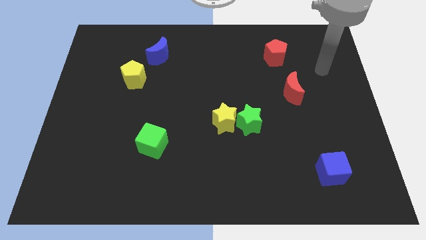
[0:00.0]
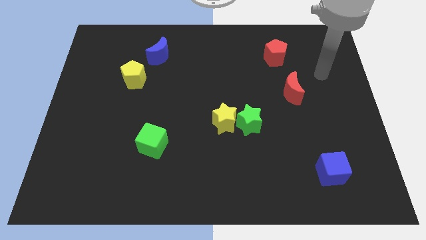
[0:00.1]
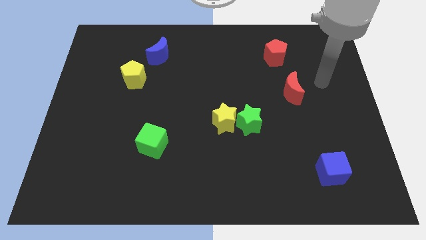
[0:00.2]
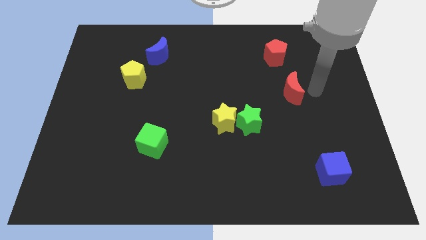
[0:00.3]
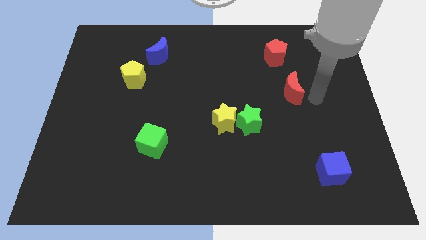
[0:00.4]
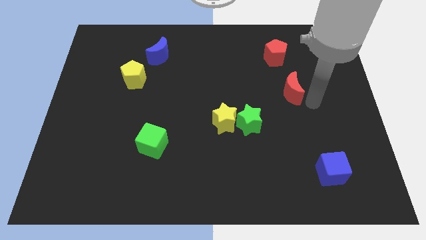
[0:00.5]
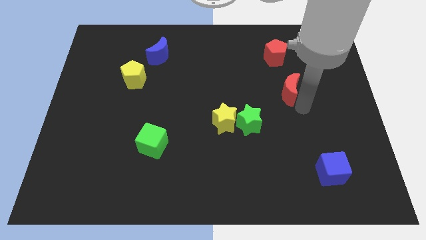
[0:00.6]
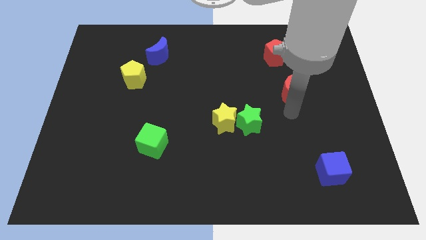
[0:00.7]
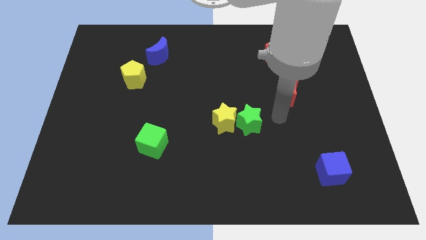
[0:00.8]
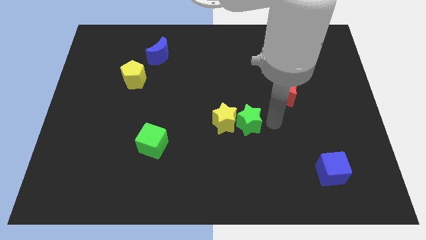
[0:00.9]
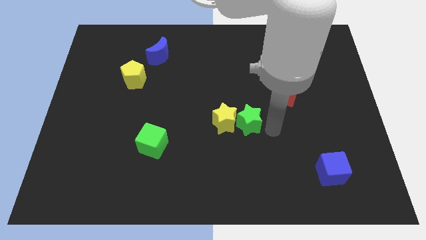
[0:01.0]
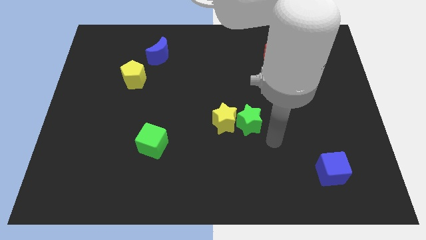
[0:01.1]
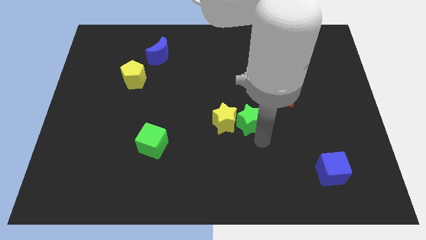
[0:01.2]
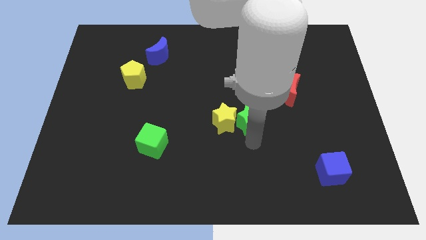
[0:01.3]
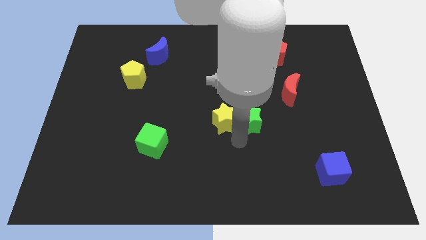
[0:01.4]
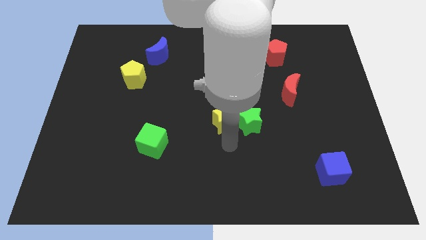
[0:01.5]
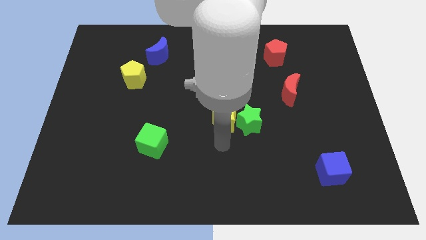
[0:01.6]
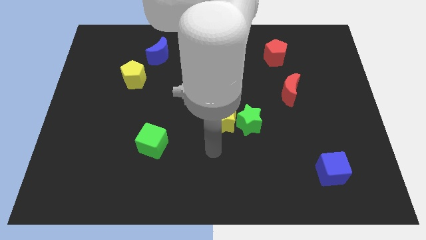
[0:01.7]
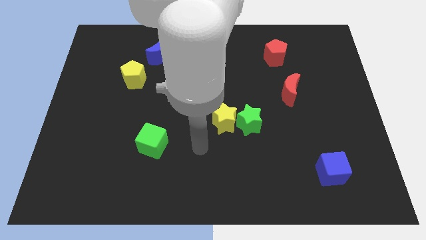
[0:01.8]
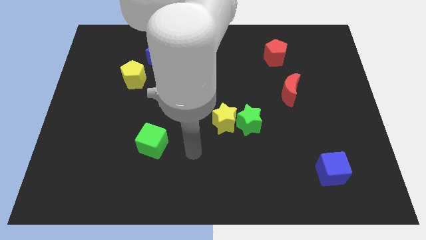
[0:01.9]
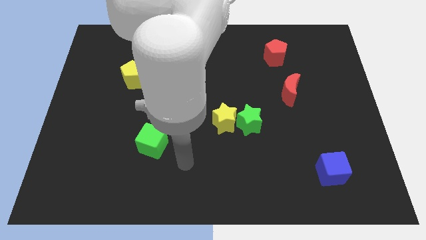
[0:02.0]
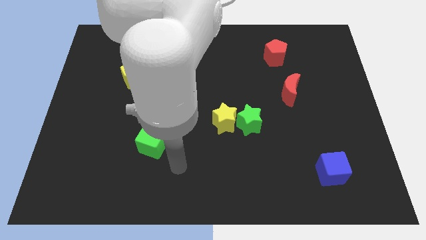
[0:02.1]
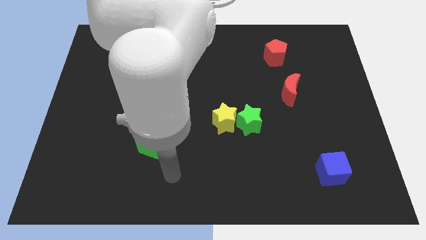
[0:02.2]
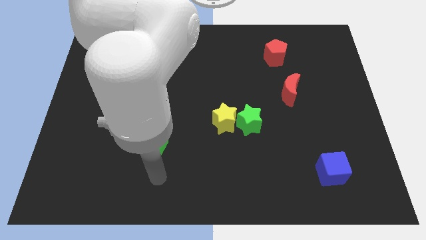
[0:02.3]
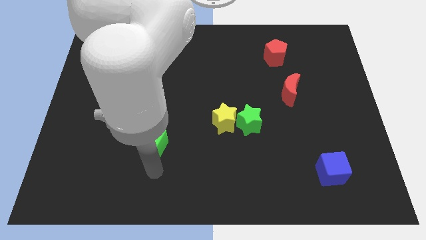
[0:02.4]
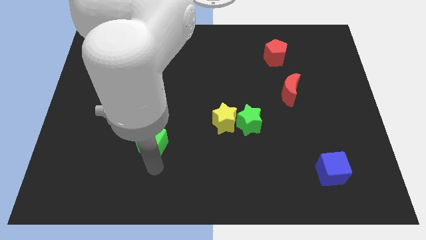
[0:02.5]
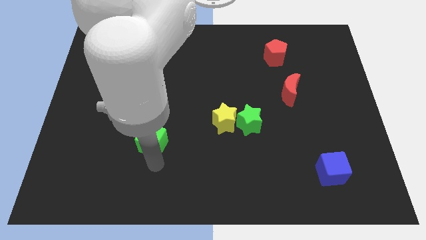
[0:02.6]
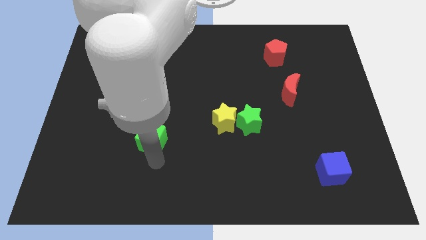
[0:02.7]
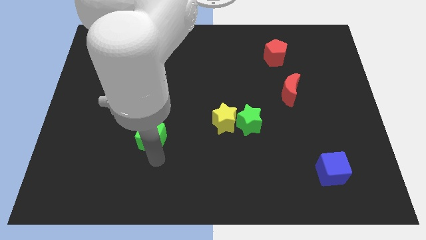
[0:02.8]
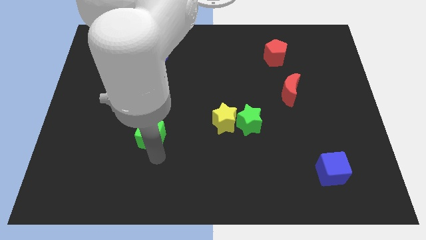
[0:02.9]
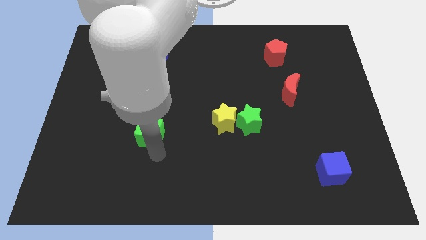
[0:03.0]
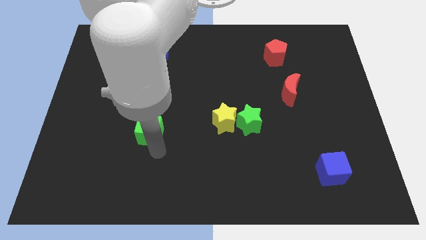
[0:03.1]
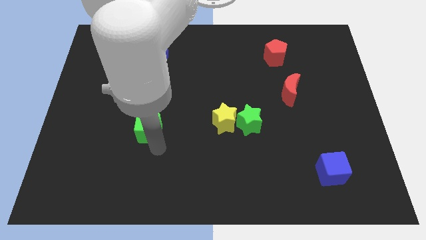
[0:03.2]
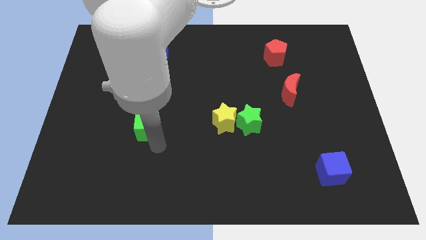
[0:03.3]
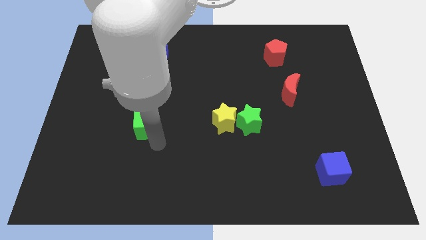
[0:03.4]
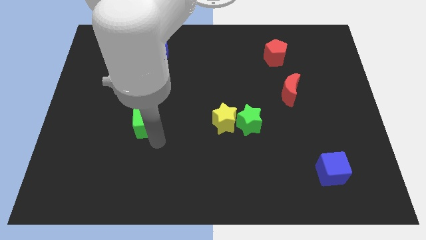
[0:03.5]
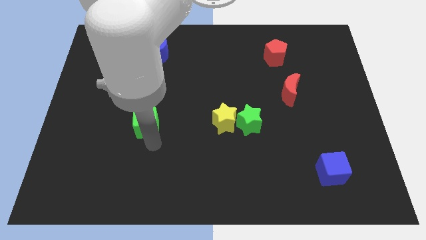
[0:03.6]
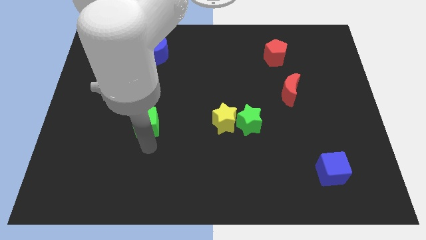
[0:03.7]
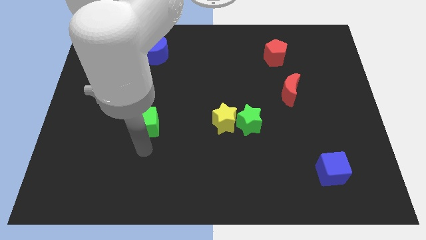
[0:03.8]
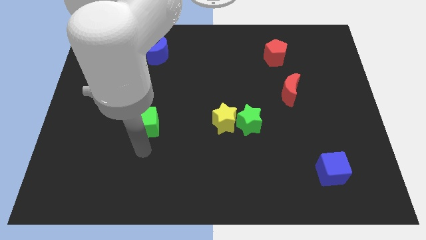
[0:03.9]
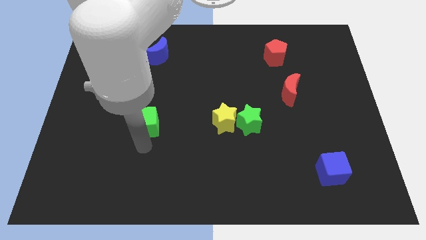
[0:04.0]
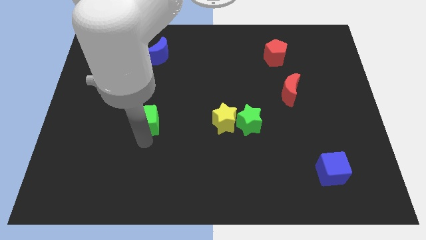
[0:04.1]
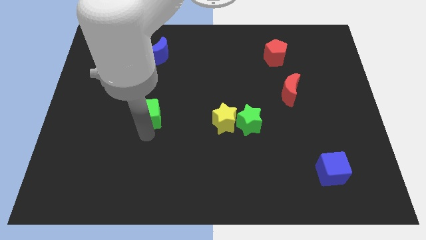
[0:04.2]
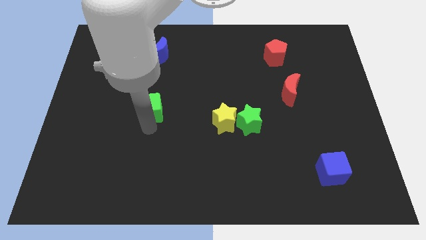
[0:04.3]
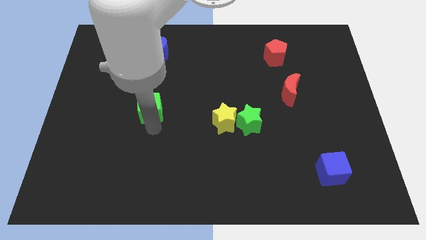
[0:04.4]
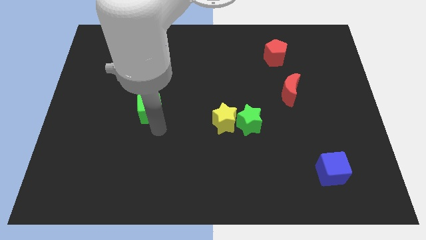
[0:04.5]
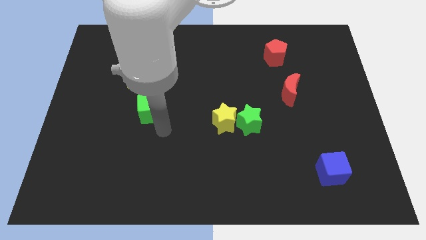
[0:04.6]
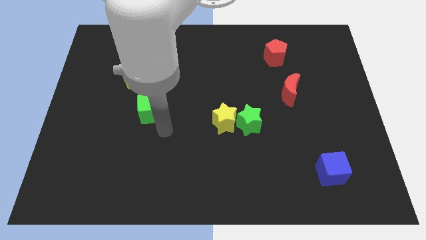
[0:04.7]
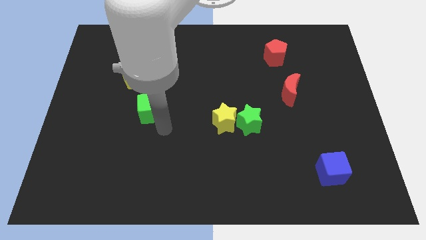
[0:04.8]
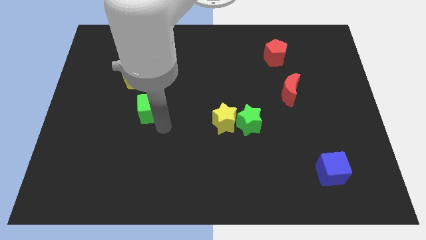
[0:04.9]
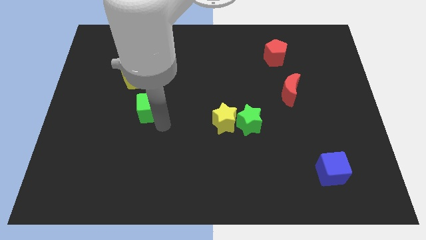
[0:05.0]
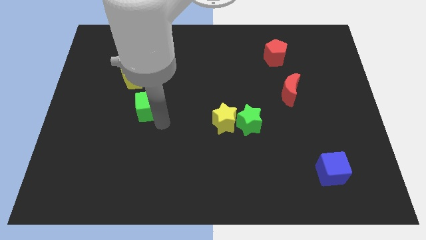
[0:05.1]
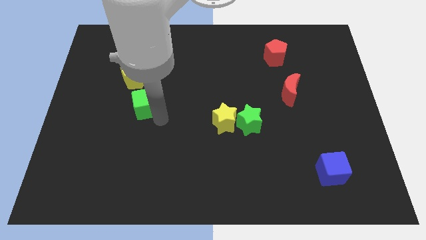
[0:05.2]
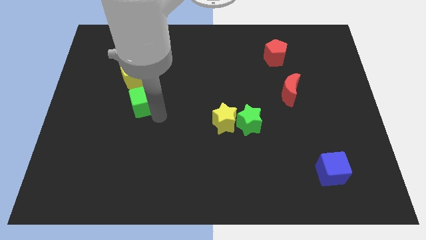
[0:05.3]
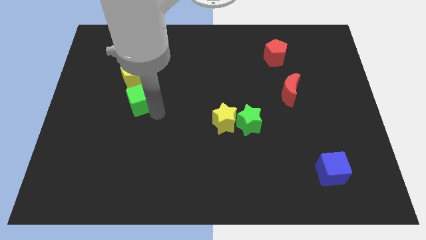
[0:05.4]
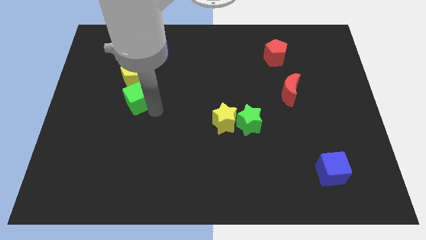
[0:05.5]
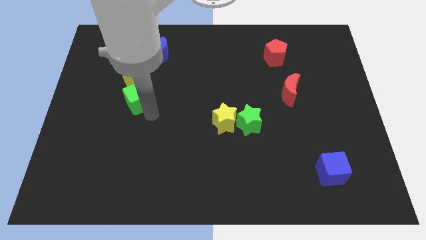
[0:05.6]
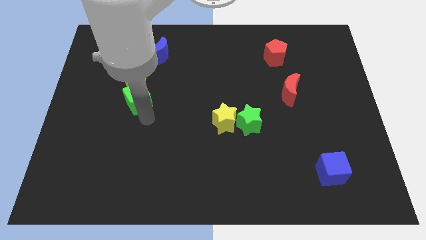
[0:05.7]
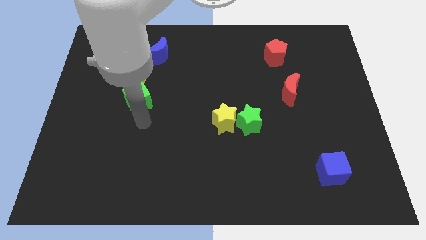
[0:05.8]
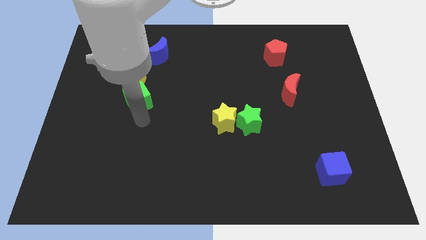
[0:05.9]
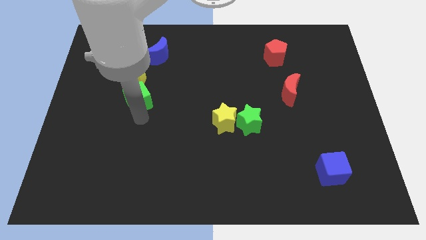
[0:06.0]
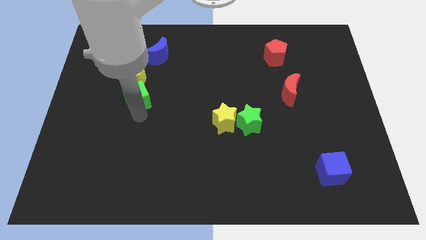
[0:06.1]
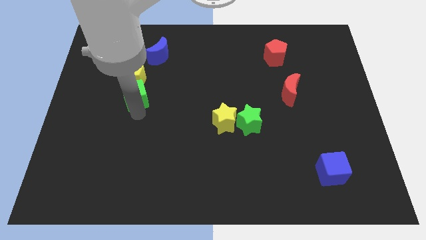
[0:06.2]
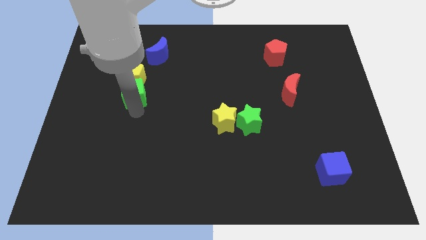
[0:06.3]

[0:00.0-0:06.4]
slide the green cube to the yellow pentagon

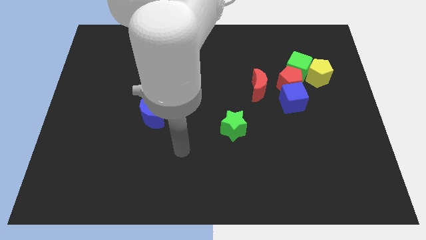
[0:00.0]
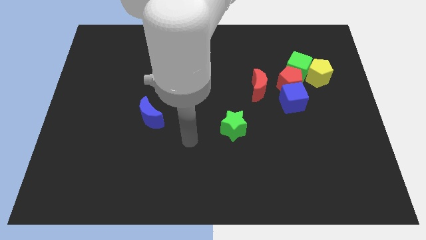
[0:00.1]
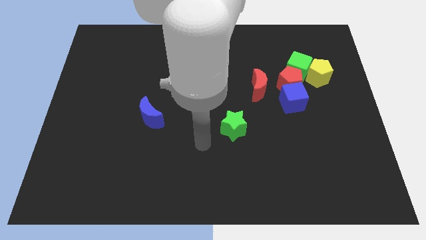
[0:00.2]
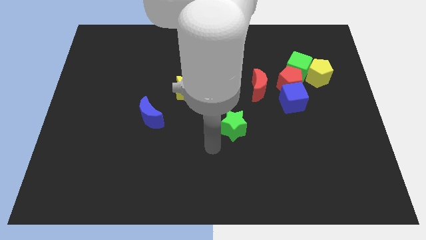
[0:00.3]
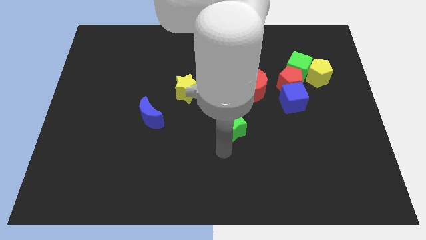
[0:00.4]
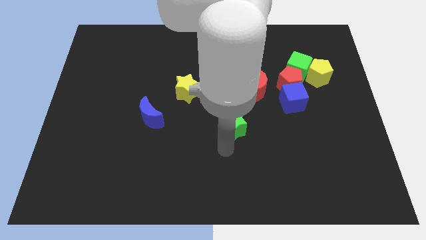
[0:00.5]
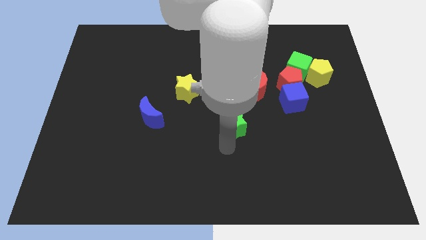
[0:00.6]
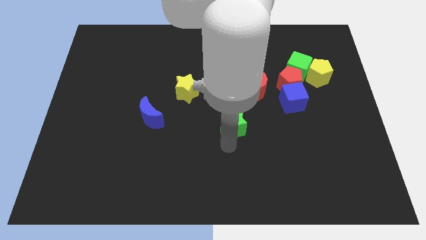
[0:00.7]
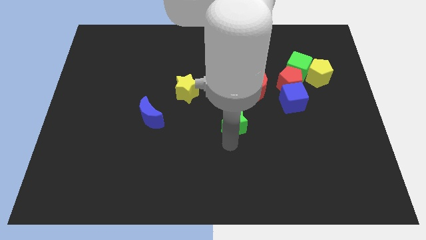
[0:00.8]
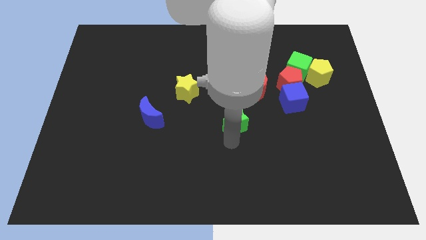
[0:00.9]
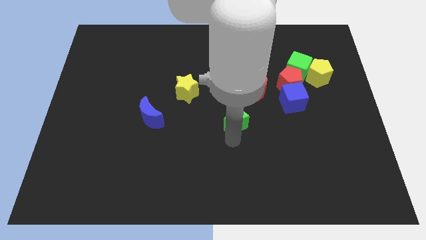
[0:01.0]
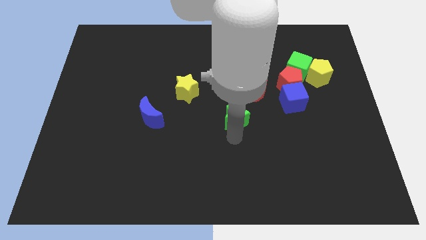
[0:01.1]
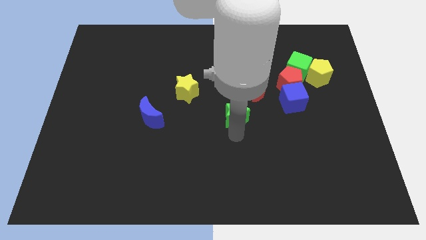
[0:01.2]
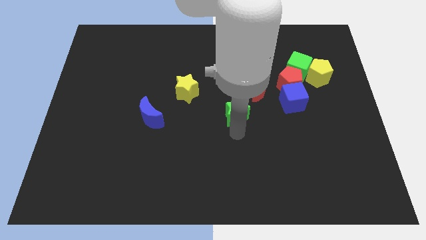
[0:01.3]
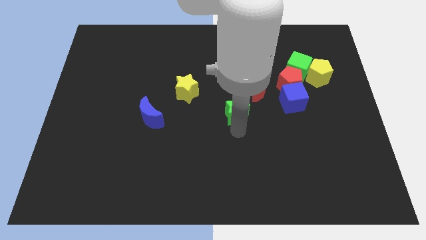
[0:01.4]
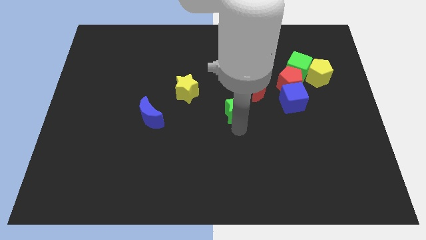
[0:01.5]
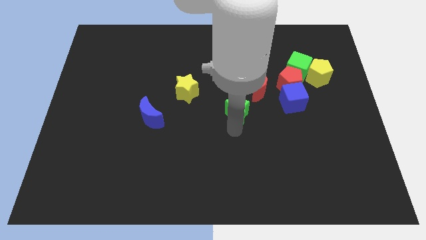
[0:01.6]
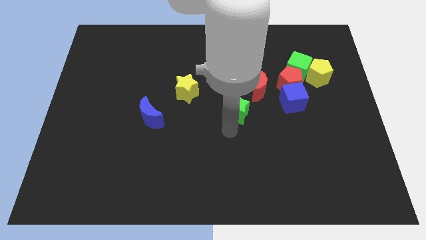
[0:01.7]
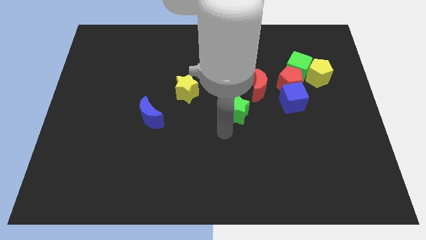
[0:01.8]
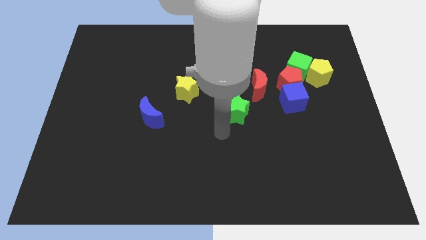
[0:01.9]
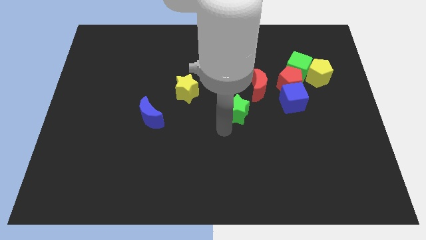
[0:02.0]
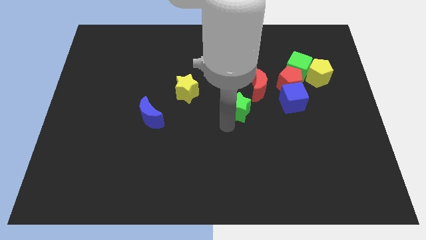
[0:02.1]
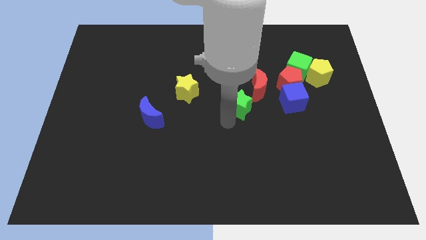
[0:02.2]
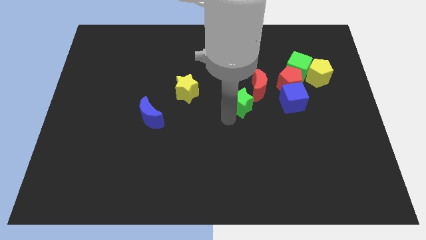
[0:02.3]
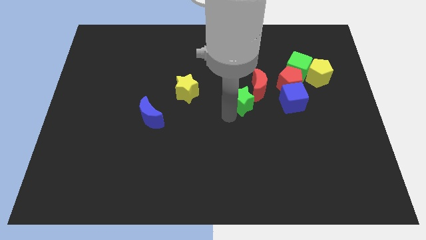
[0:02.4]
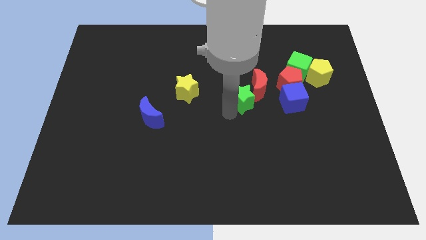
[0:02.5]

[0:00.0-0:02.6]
move the green star close to the red moon
